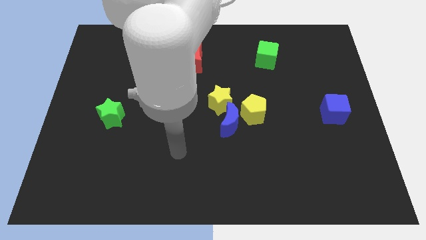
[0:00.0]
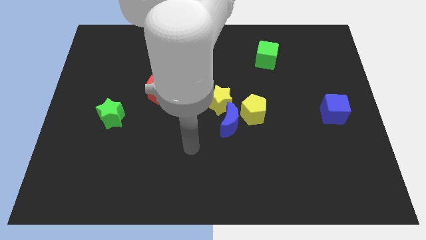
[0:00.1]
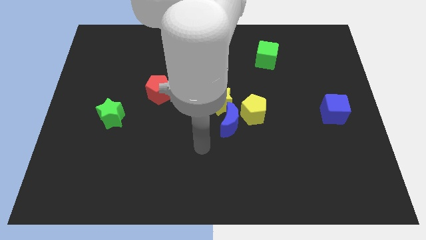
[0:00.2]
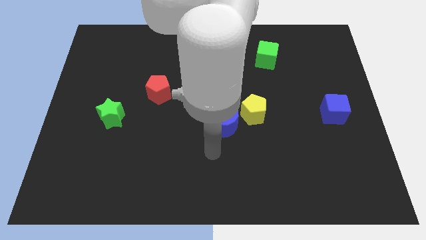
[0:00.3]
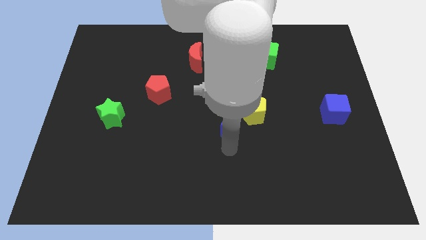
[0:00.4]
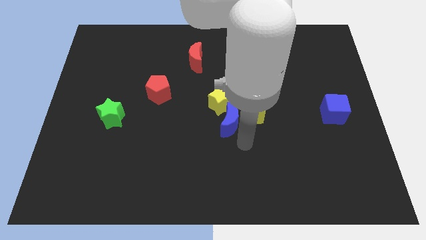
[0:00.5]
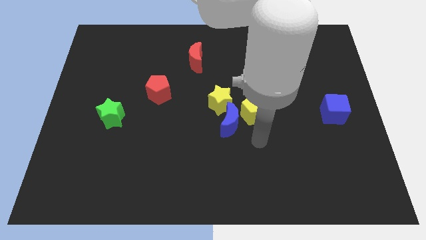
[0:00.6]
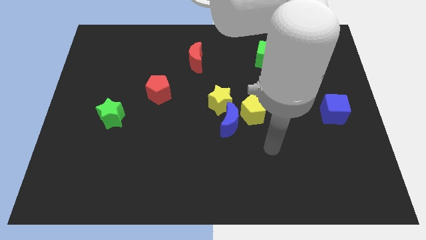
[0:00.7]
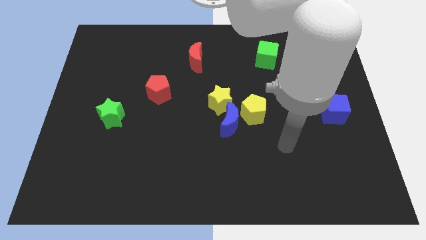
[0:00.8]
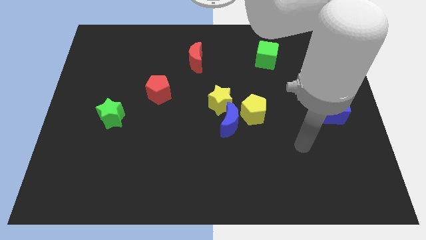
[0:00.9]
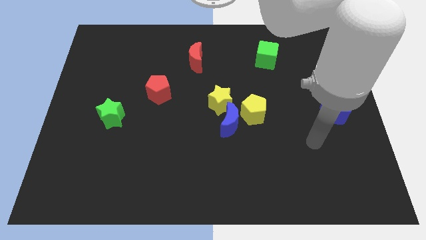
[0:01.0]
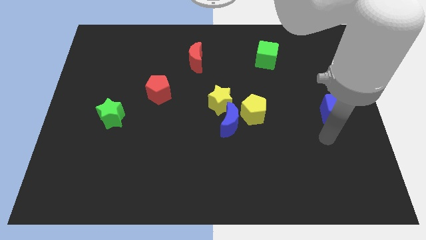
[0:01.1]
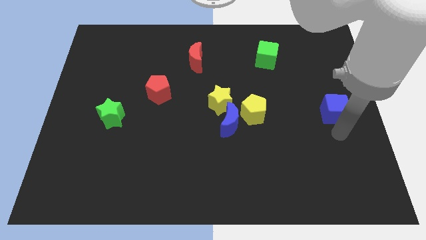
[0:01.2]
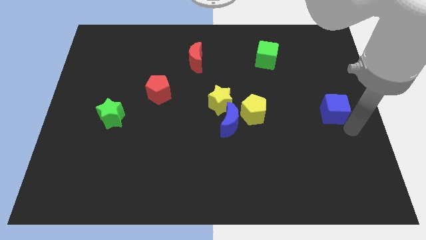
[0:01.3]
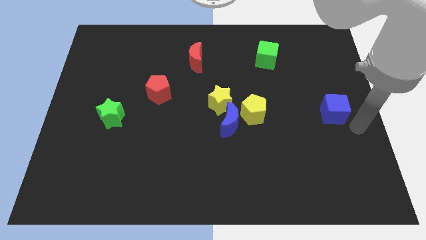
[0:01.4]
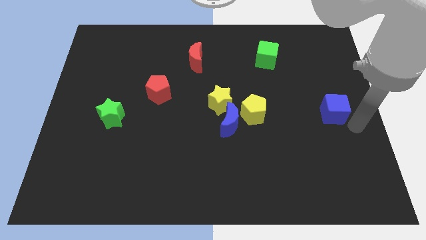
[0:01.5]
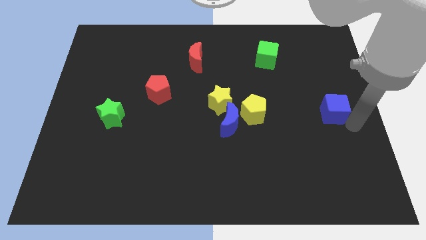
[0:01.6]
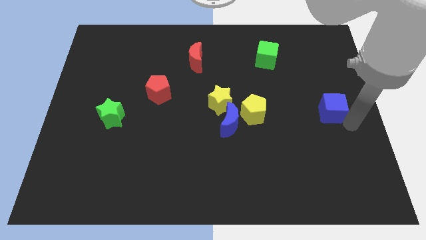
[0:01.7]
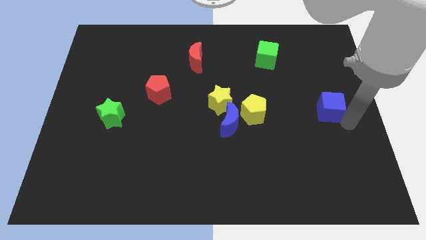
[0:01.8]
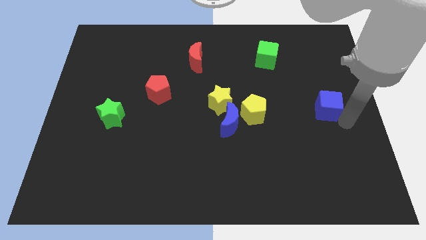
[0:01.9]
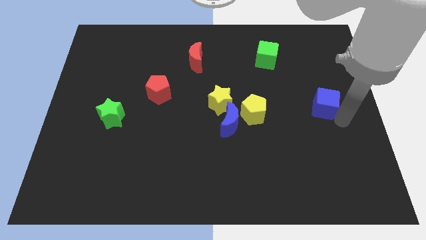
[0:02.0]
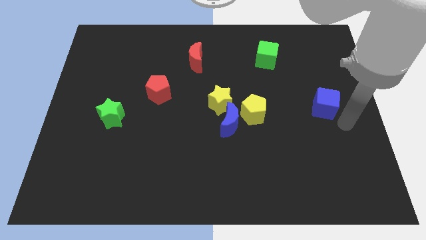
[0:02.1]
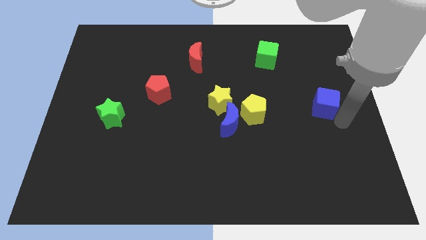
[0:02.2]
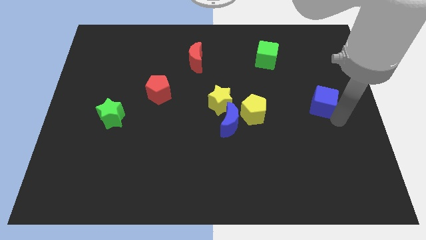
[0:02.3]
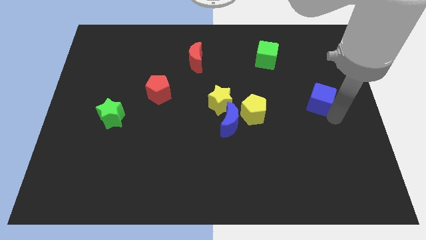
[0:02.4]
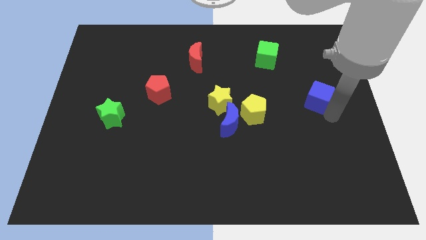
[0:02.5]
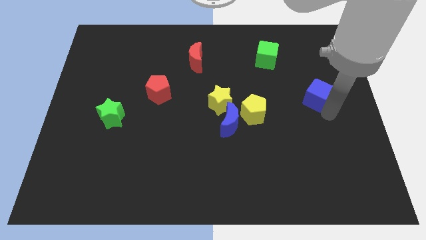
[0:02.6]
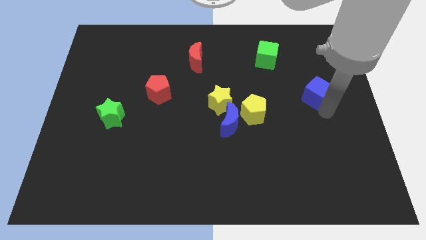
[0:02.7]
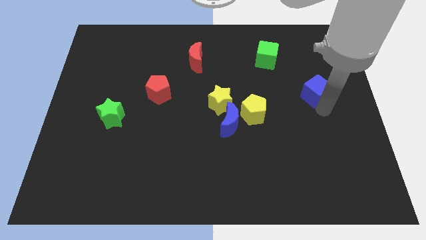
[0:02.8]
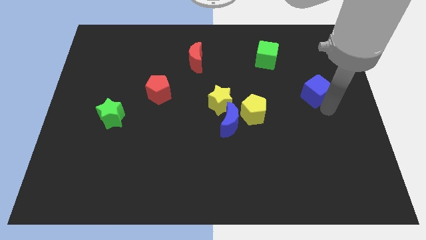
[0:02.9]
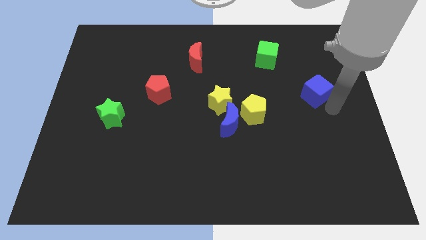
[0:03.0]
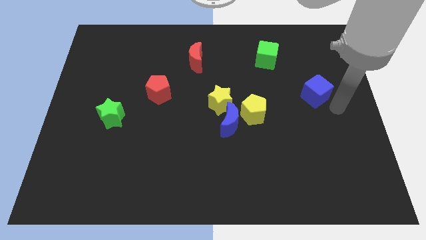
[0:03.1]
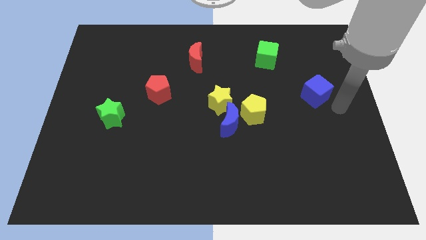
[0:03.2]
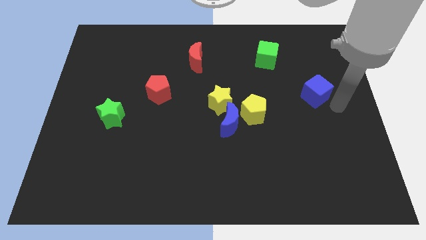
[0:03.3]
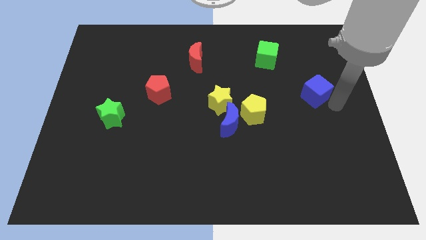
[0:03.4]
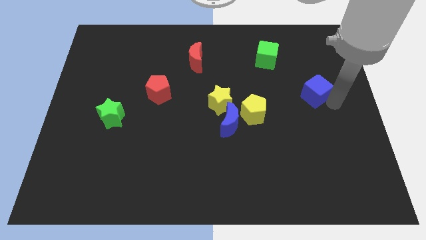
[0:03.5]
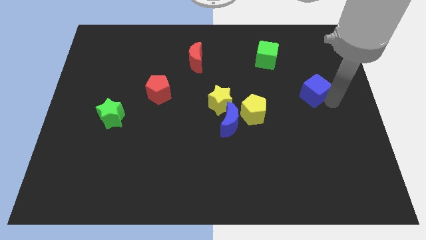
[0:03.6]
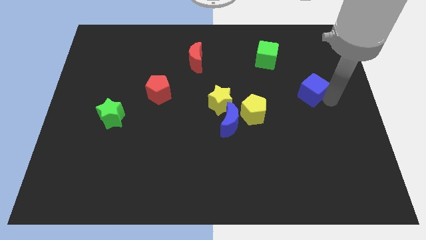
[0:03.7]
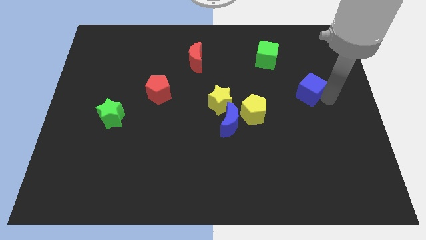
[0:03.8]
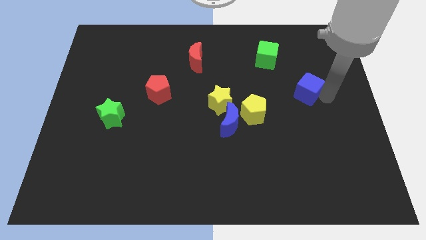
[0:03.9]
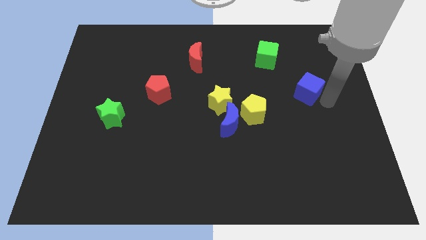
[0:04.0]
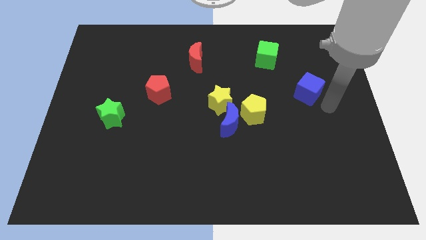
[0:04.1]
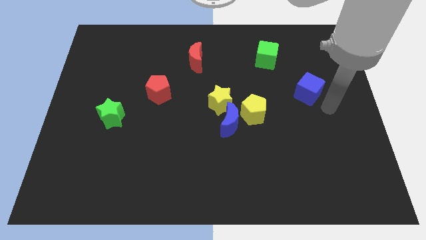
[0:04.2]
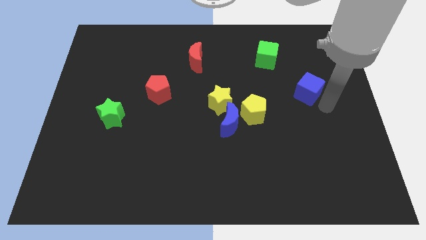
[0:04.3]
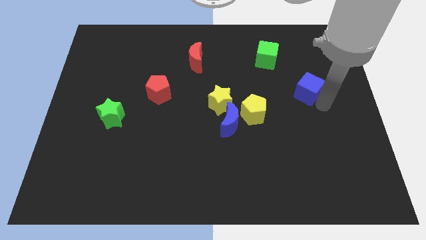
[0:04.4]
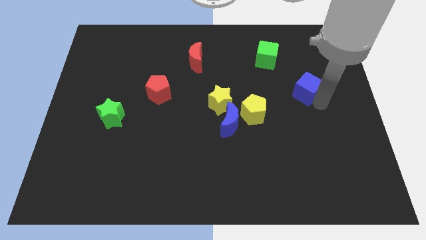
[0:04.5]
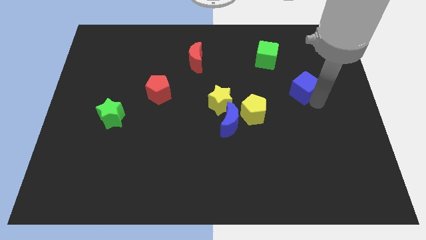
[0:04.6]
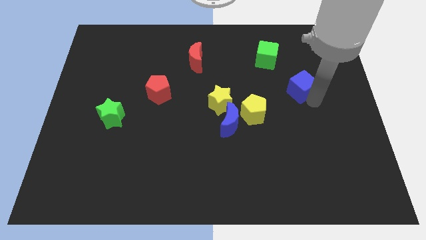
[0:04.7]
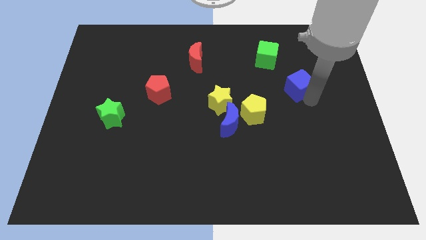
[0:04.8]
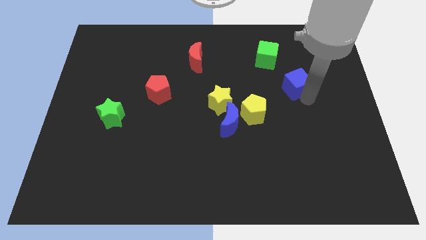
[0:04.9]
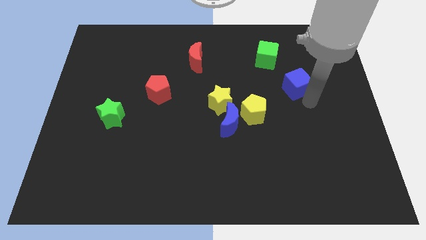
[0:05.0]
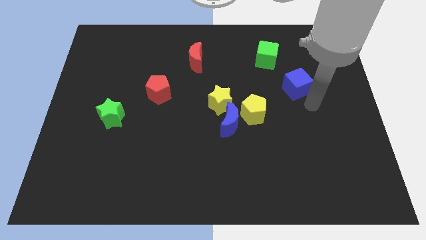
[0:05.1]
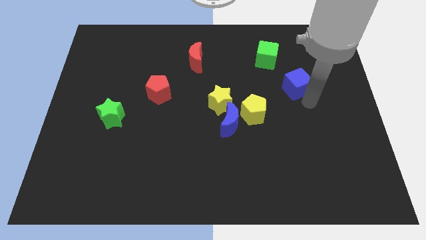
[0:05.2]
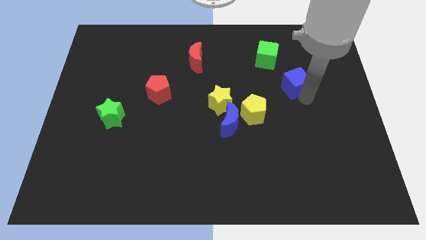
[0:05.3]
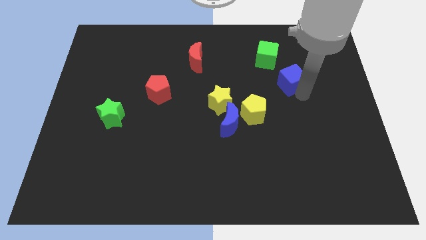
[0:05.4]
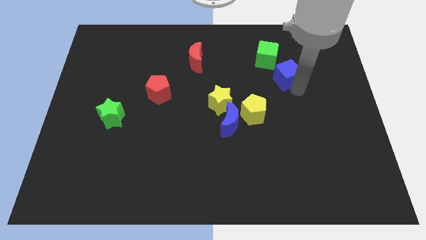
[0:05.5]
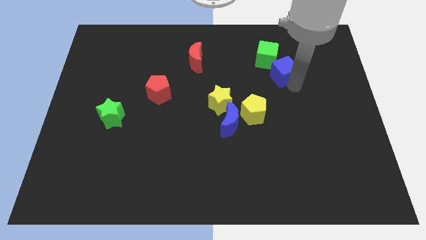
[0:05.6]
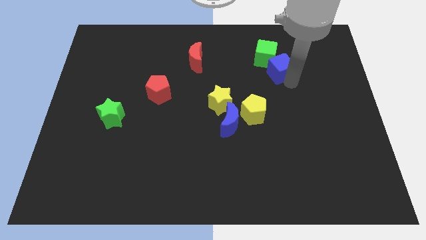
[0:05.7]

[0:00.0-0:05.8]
slide the blue cube close to the green cube
